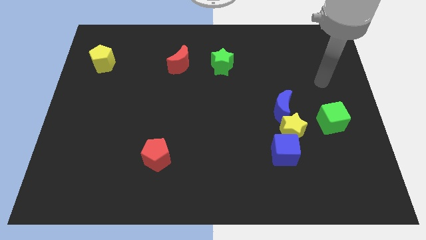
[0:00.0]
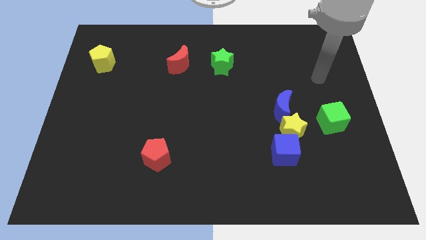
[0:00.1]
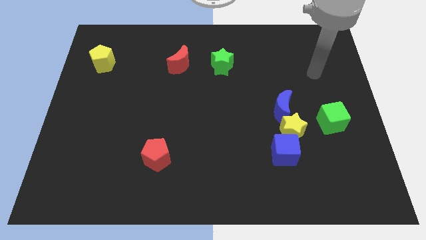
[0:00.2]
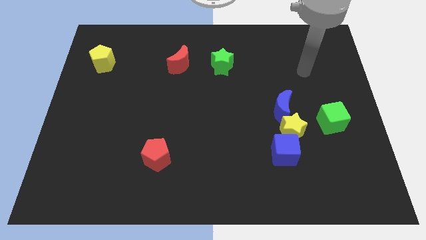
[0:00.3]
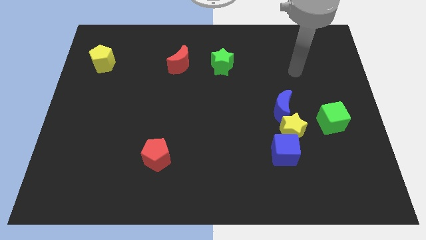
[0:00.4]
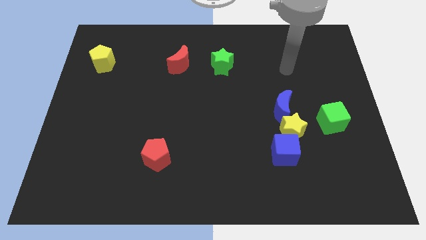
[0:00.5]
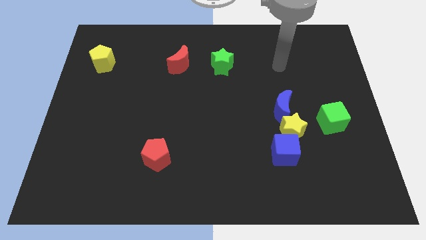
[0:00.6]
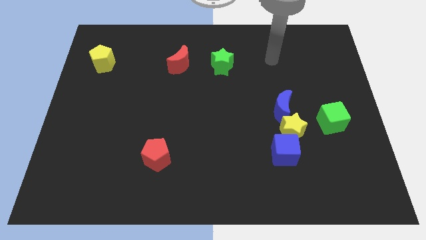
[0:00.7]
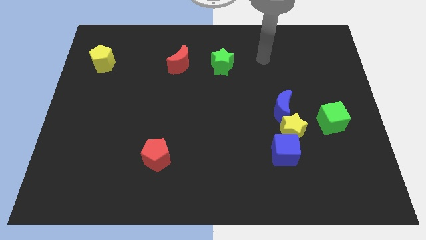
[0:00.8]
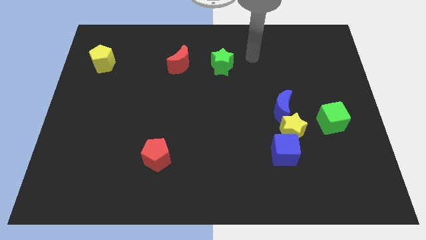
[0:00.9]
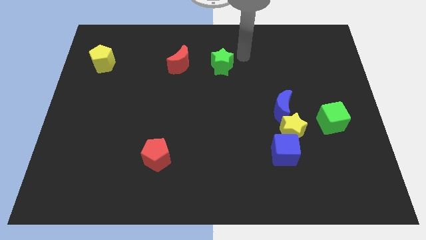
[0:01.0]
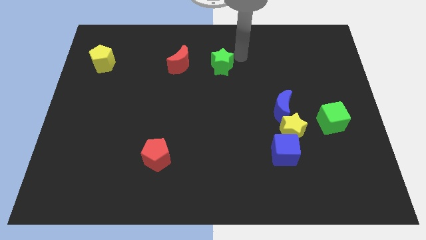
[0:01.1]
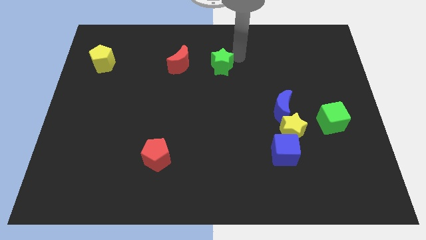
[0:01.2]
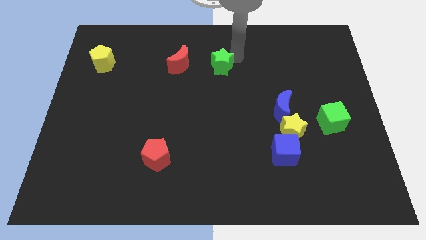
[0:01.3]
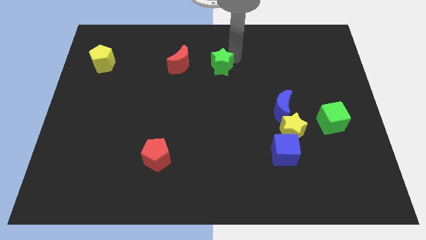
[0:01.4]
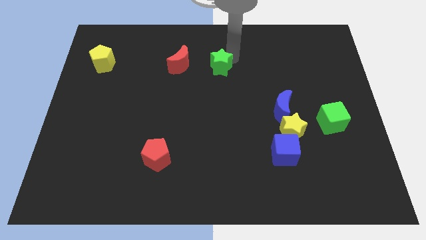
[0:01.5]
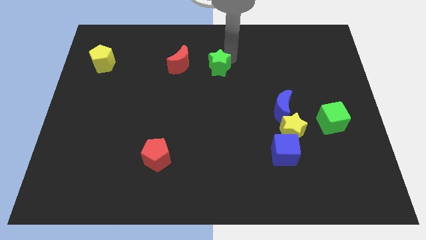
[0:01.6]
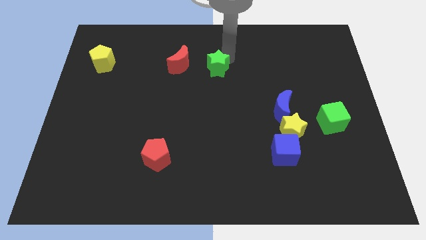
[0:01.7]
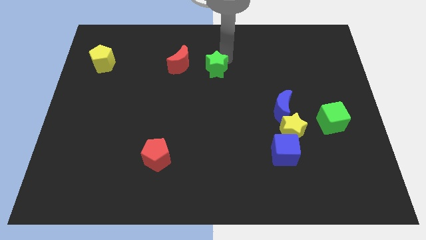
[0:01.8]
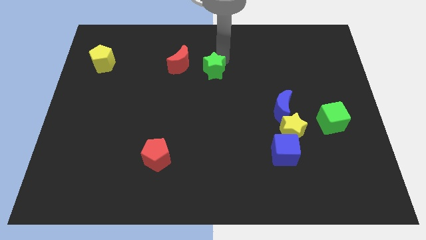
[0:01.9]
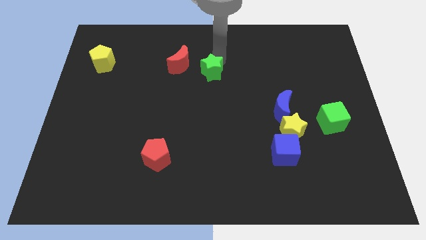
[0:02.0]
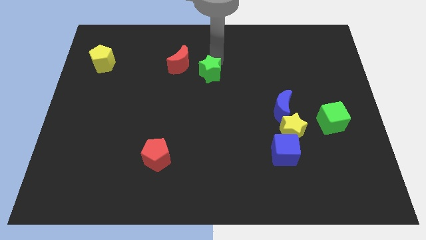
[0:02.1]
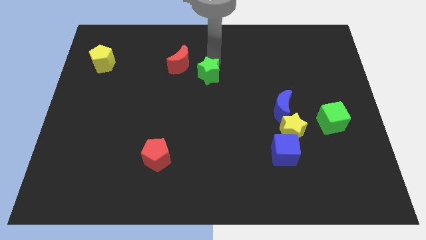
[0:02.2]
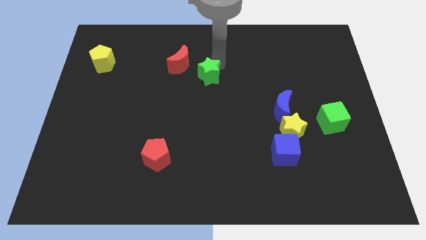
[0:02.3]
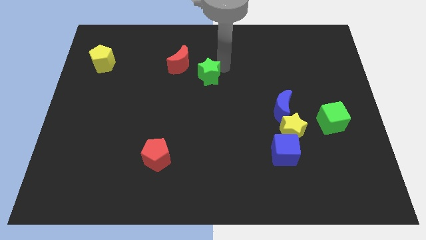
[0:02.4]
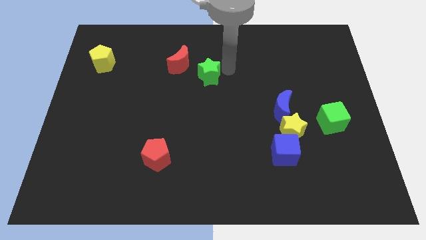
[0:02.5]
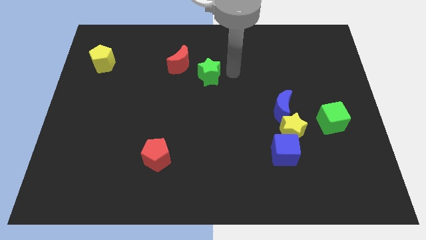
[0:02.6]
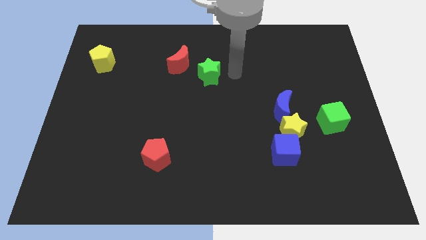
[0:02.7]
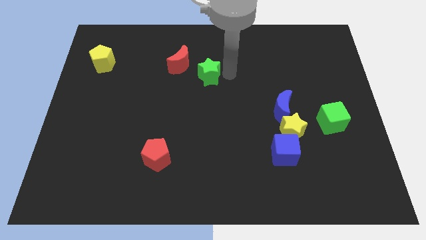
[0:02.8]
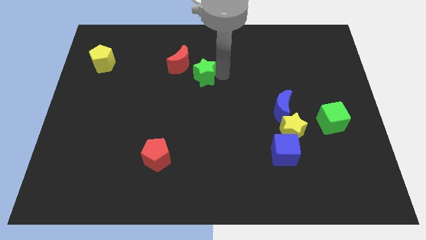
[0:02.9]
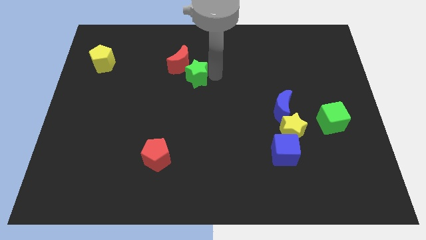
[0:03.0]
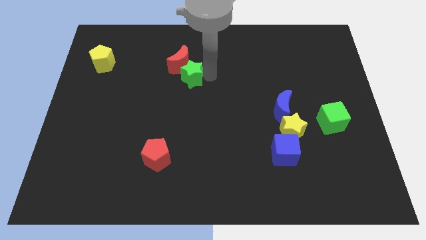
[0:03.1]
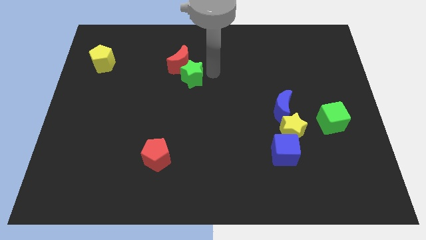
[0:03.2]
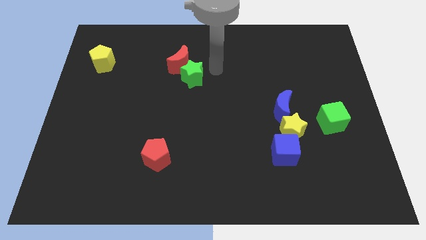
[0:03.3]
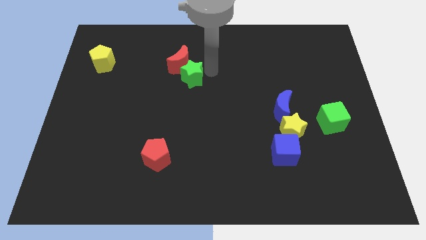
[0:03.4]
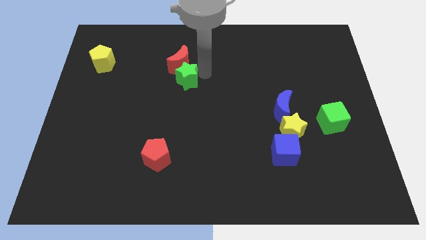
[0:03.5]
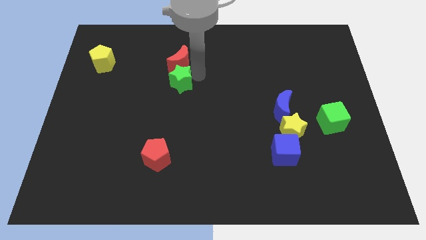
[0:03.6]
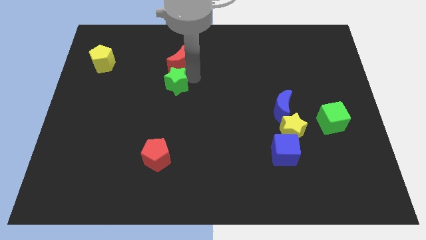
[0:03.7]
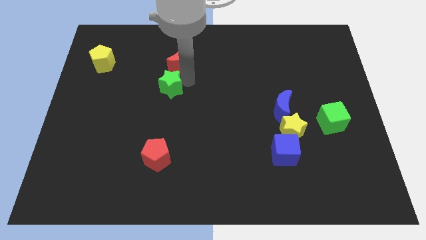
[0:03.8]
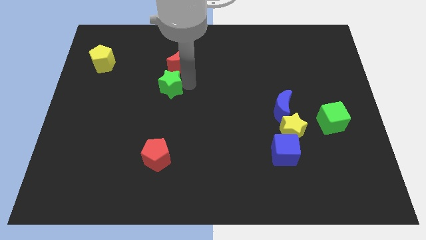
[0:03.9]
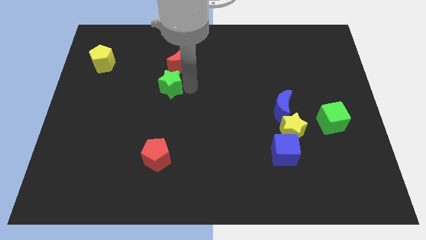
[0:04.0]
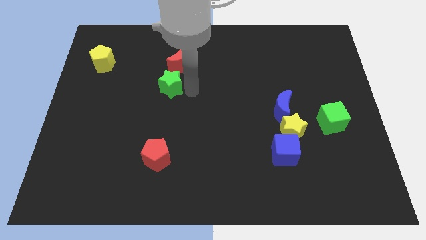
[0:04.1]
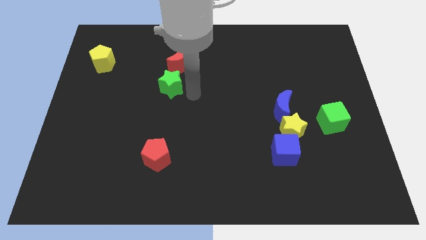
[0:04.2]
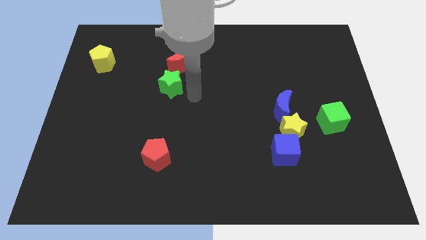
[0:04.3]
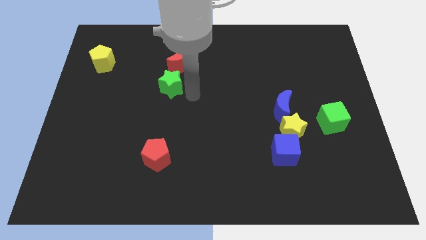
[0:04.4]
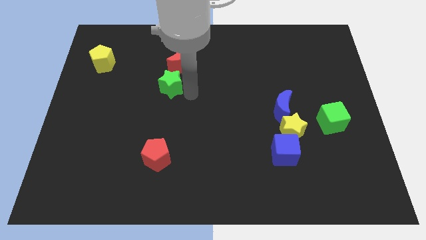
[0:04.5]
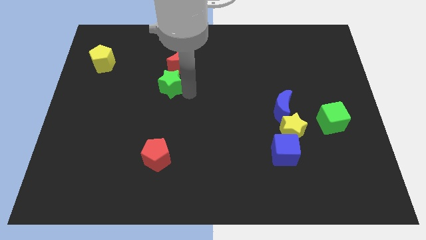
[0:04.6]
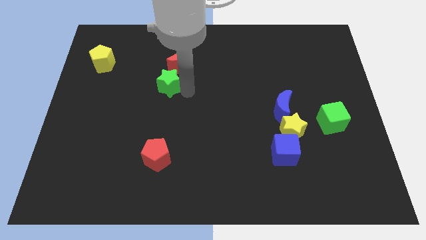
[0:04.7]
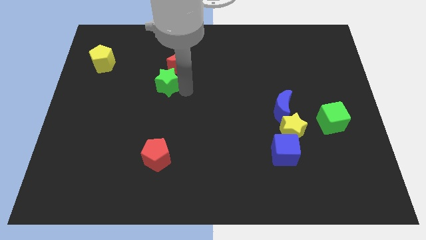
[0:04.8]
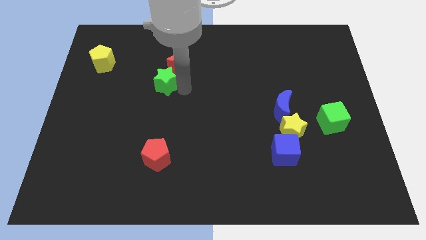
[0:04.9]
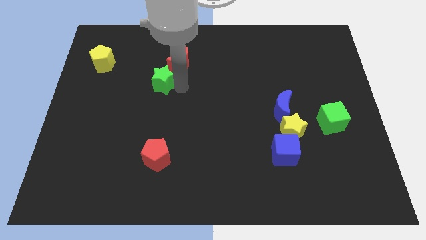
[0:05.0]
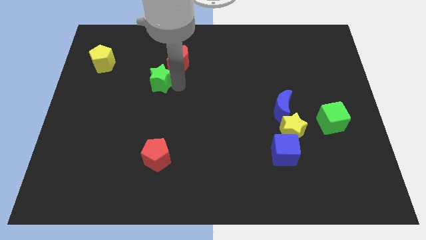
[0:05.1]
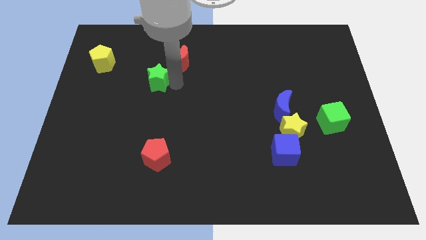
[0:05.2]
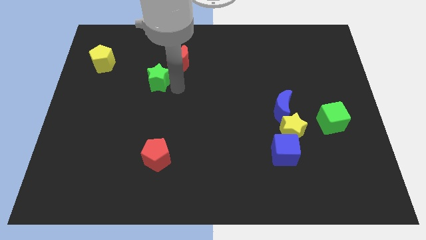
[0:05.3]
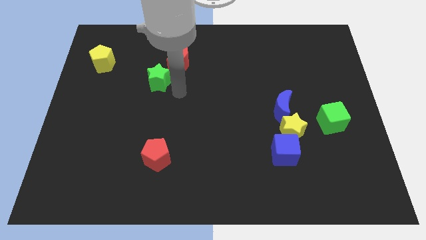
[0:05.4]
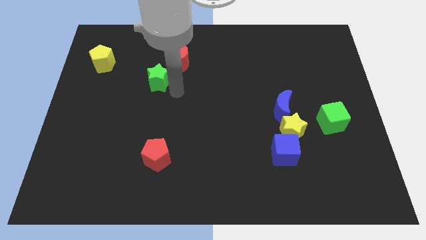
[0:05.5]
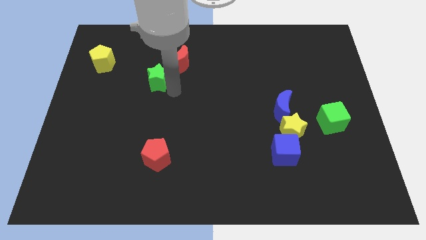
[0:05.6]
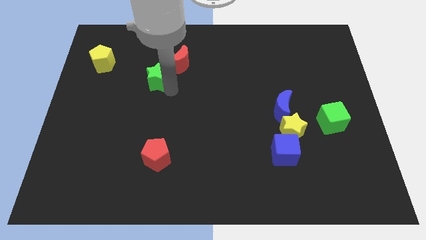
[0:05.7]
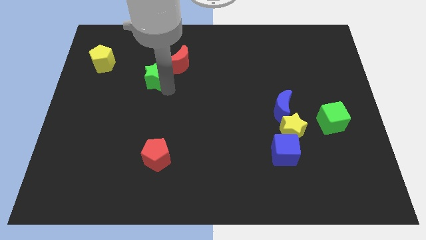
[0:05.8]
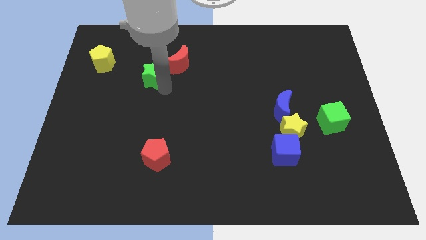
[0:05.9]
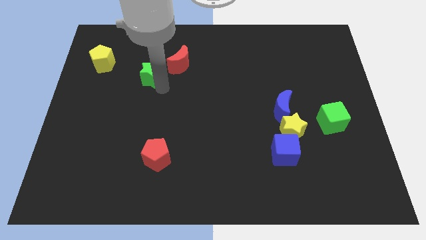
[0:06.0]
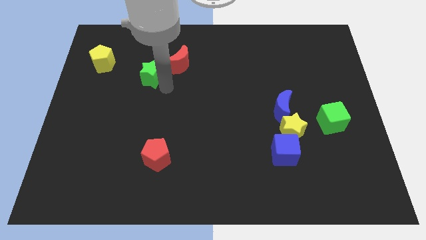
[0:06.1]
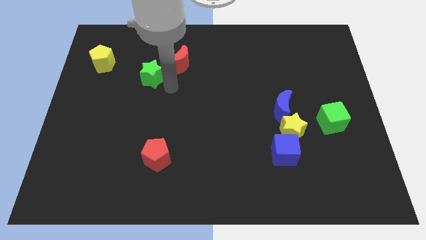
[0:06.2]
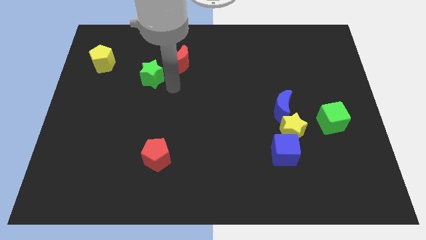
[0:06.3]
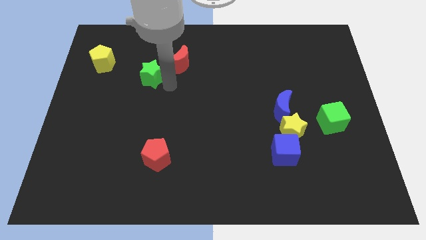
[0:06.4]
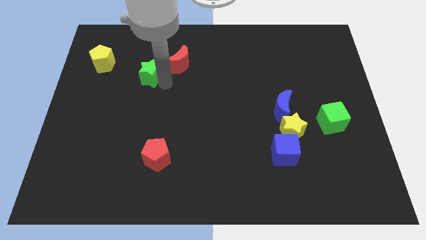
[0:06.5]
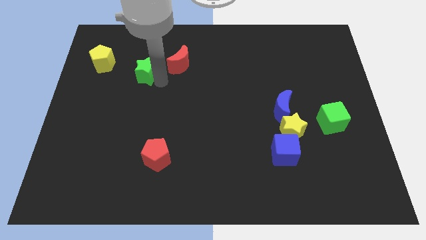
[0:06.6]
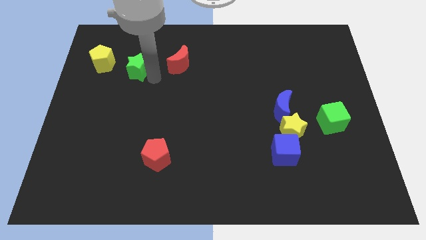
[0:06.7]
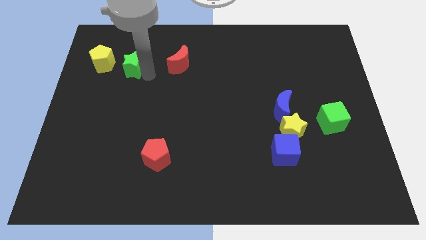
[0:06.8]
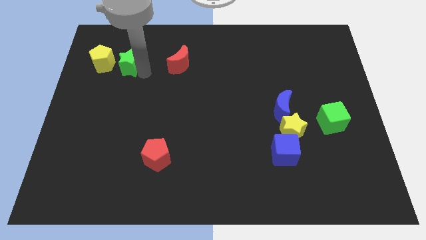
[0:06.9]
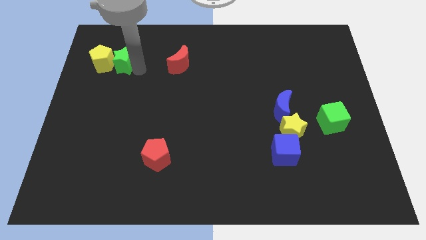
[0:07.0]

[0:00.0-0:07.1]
put the green star towards the yellow pentagon

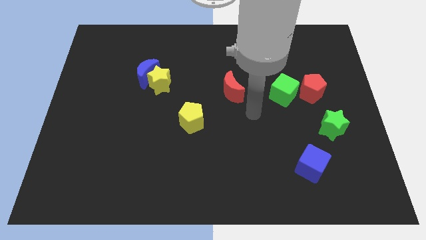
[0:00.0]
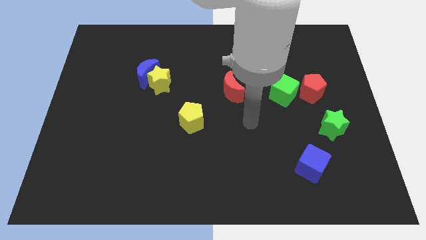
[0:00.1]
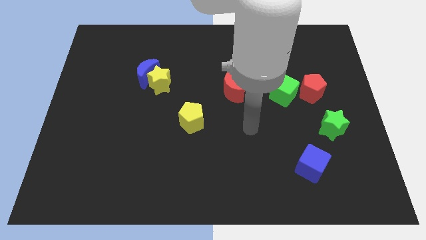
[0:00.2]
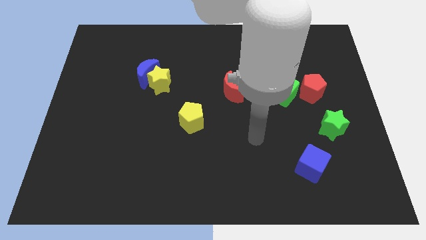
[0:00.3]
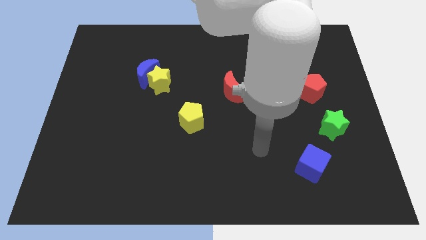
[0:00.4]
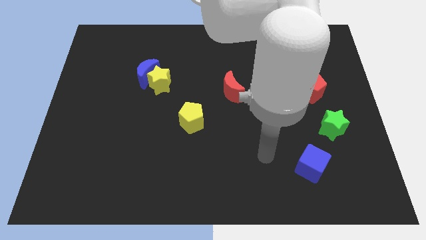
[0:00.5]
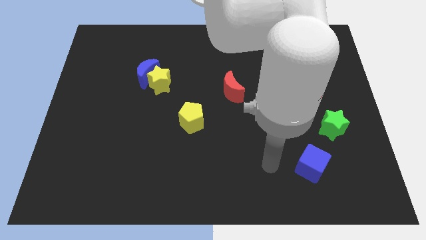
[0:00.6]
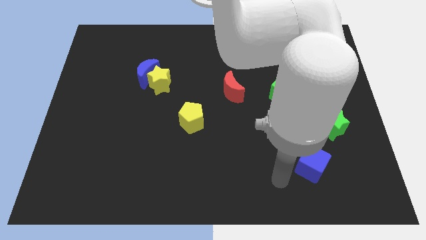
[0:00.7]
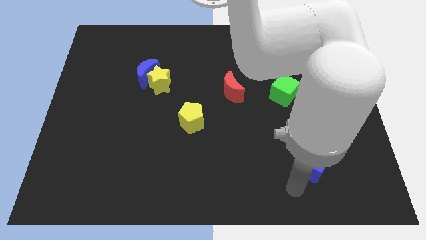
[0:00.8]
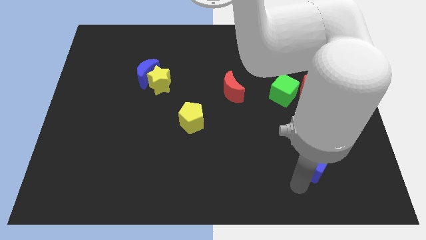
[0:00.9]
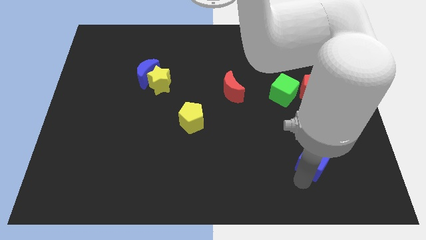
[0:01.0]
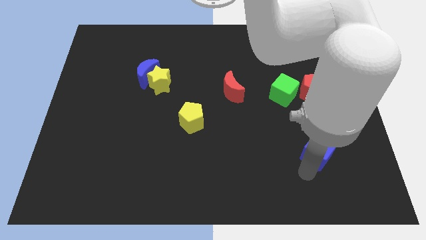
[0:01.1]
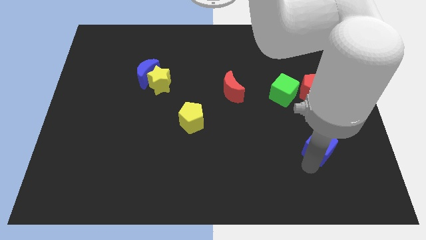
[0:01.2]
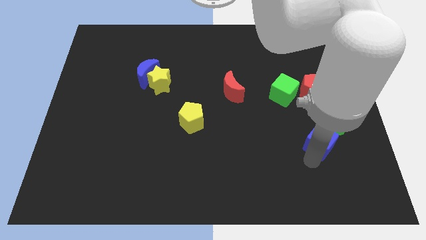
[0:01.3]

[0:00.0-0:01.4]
move the blue cube close to the green star
